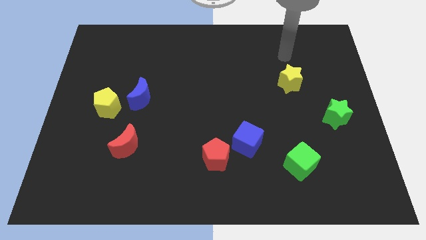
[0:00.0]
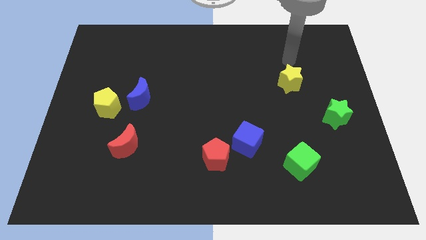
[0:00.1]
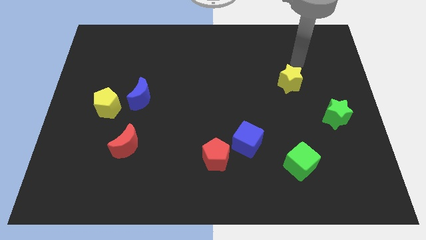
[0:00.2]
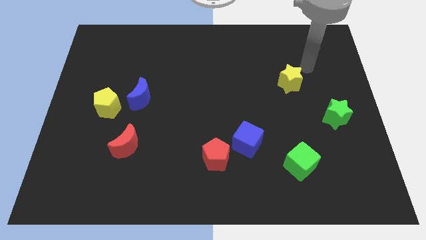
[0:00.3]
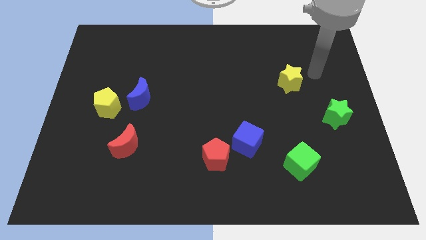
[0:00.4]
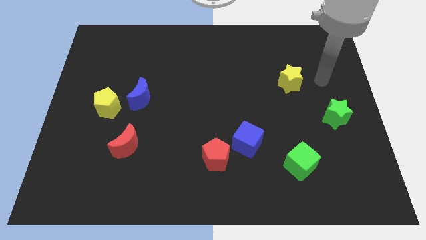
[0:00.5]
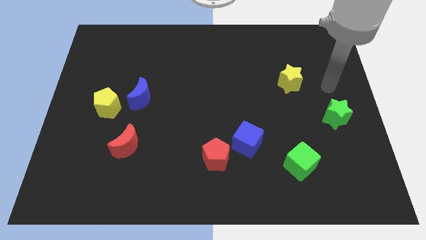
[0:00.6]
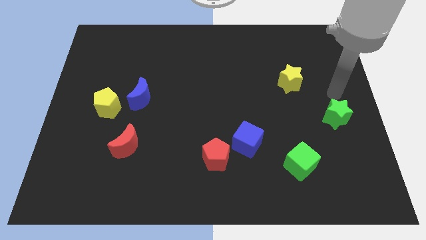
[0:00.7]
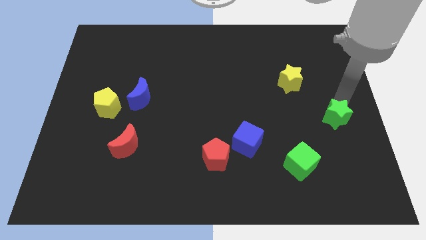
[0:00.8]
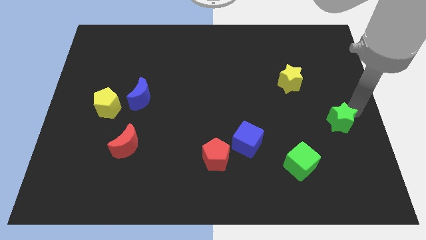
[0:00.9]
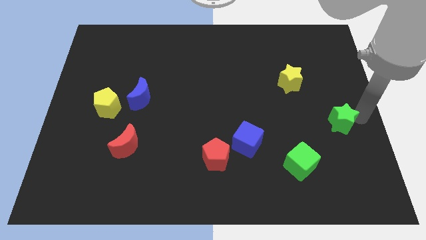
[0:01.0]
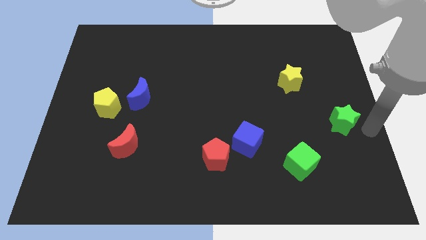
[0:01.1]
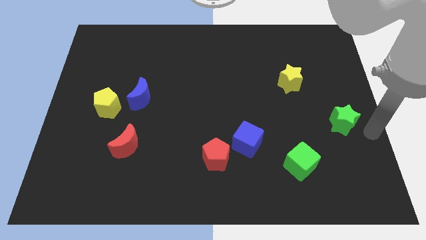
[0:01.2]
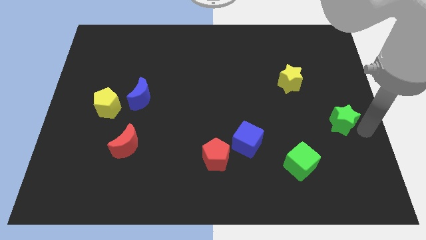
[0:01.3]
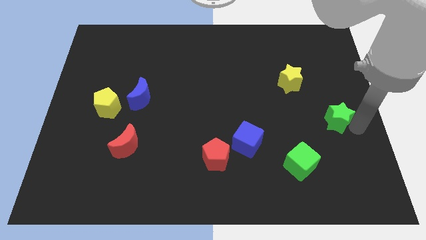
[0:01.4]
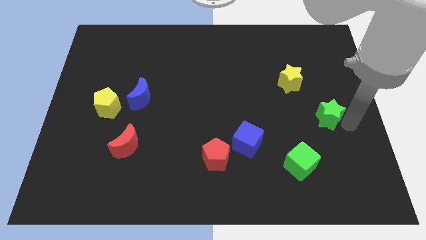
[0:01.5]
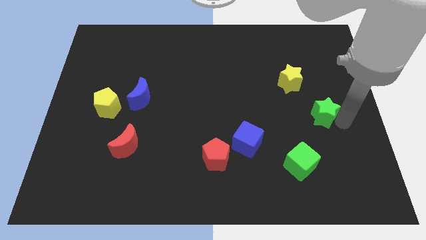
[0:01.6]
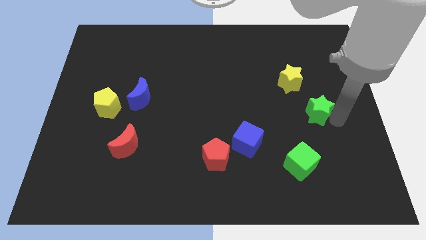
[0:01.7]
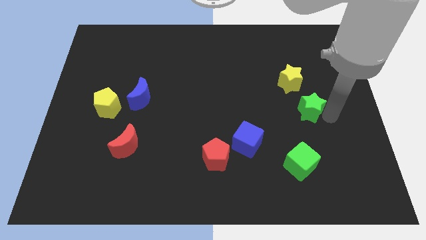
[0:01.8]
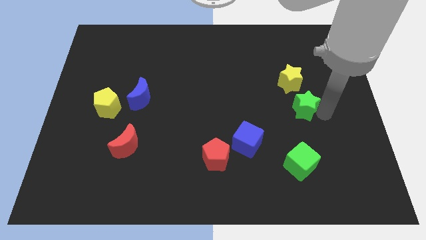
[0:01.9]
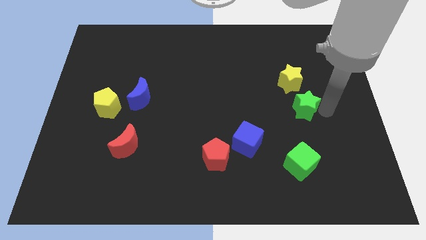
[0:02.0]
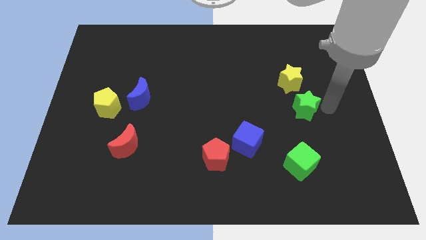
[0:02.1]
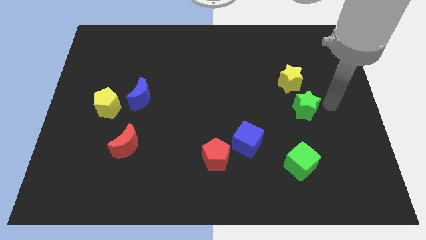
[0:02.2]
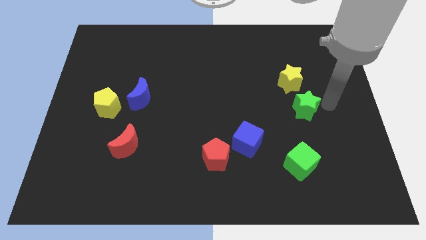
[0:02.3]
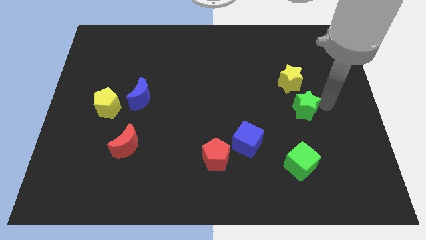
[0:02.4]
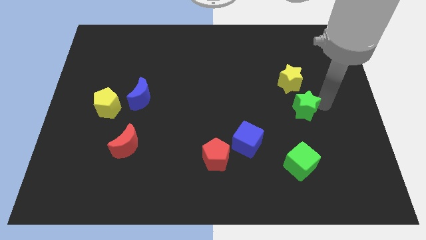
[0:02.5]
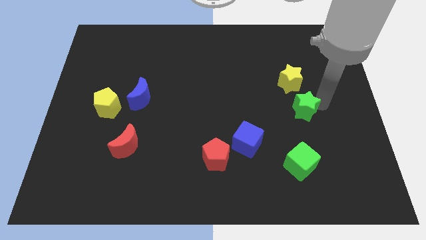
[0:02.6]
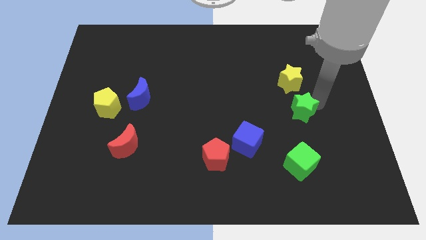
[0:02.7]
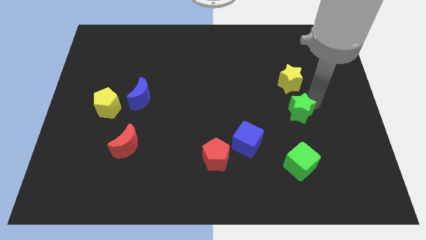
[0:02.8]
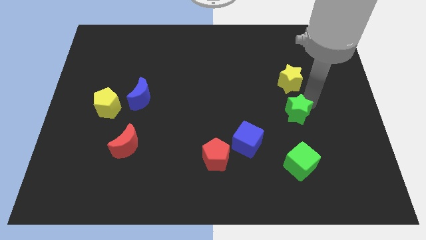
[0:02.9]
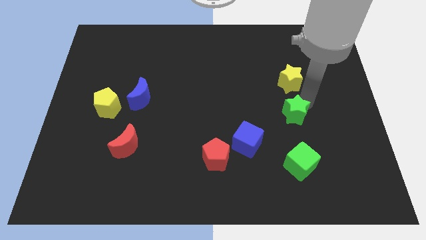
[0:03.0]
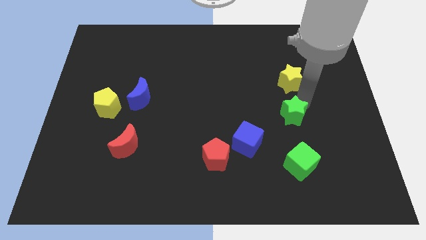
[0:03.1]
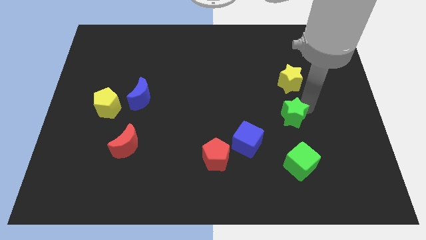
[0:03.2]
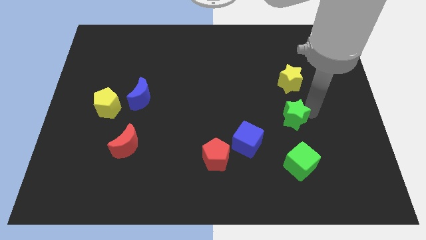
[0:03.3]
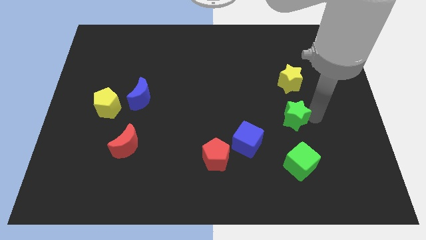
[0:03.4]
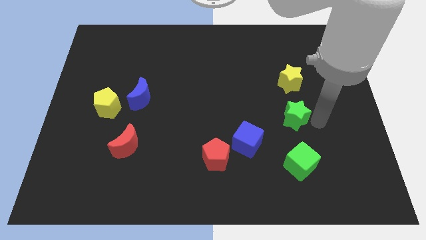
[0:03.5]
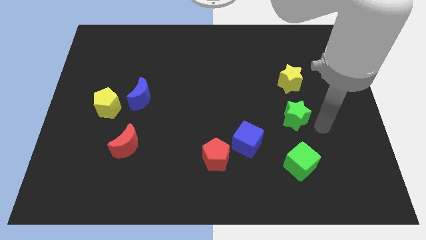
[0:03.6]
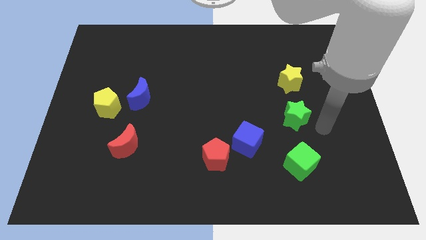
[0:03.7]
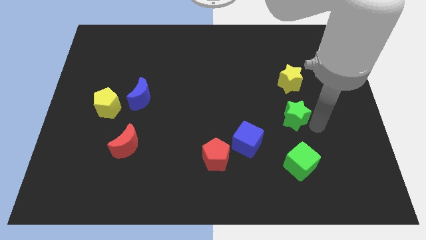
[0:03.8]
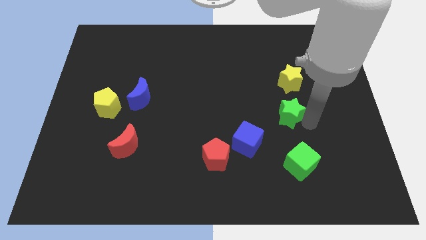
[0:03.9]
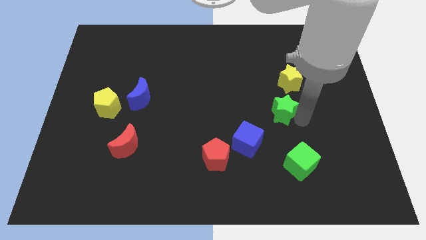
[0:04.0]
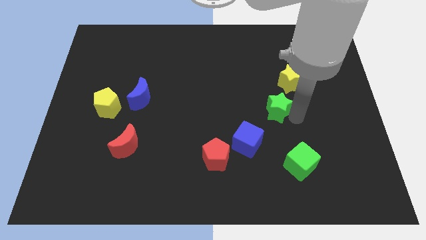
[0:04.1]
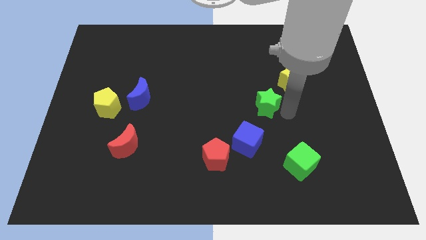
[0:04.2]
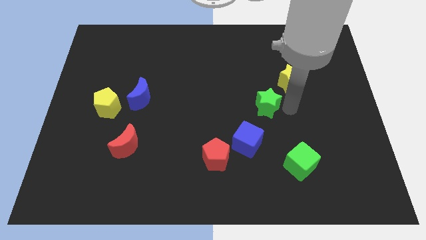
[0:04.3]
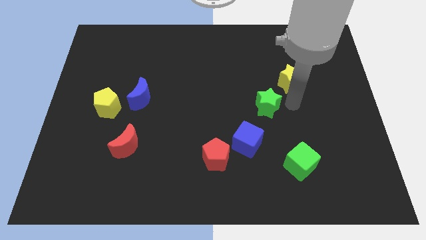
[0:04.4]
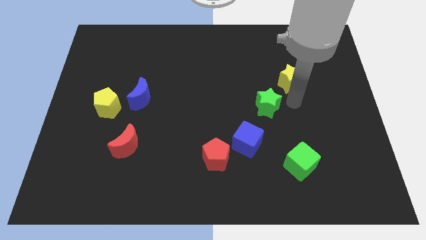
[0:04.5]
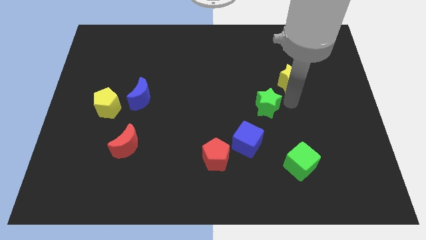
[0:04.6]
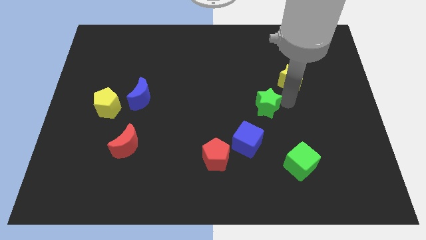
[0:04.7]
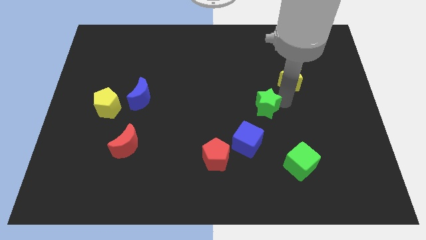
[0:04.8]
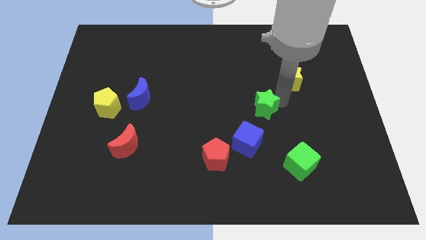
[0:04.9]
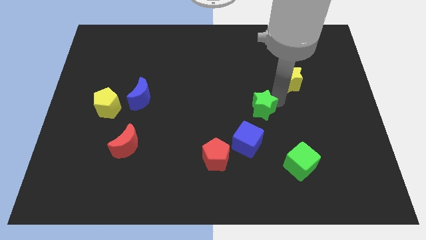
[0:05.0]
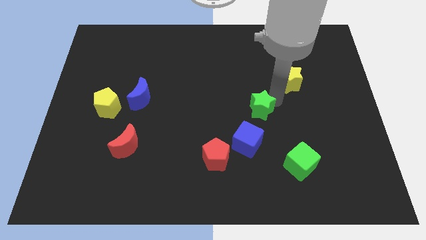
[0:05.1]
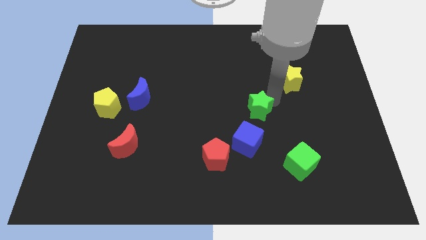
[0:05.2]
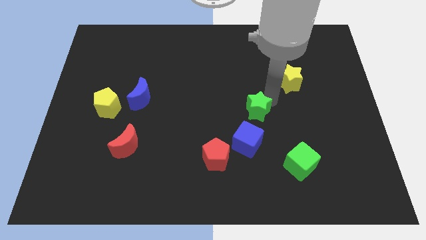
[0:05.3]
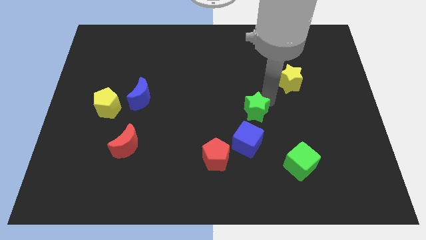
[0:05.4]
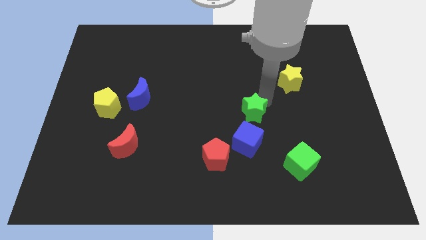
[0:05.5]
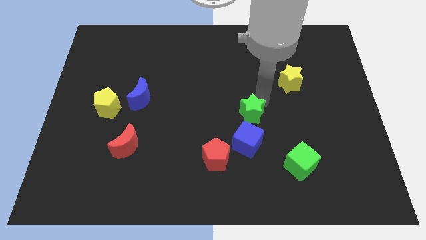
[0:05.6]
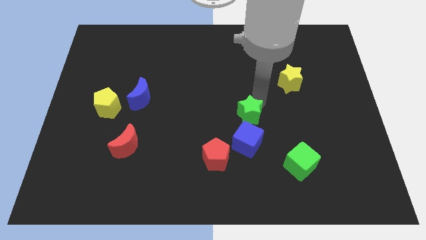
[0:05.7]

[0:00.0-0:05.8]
slide the green star to the left

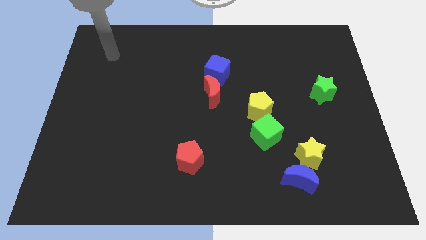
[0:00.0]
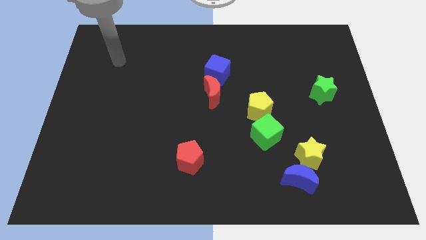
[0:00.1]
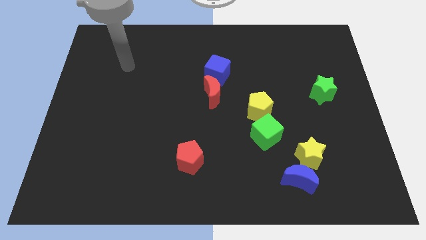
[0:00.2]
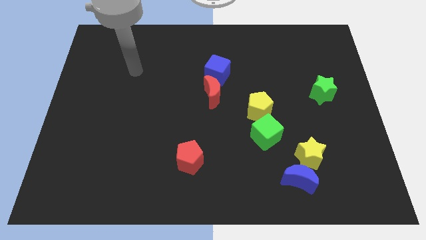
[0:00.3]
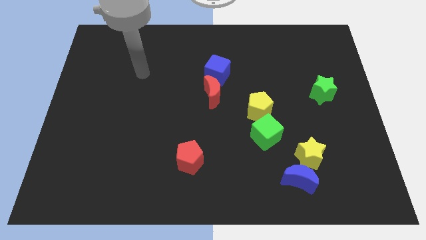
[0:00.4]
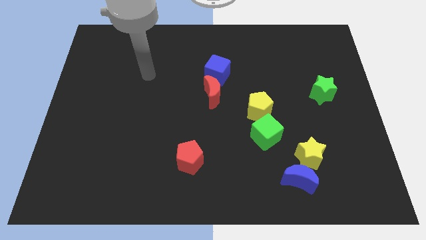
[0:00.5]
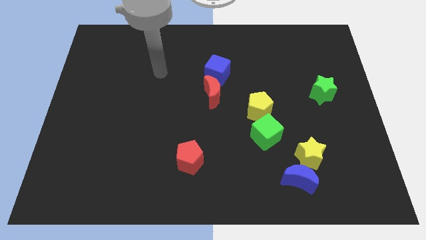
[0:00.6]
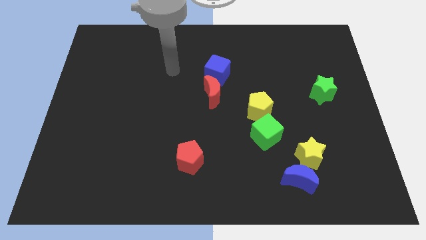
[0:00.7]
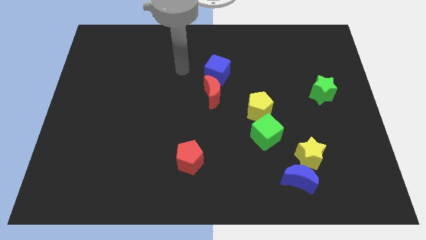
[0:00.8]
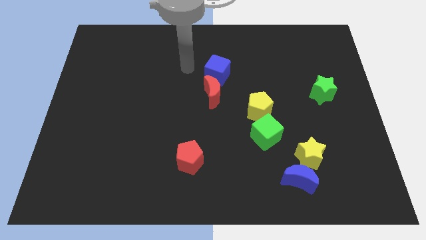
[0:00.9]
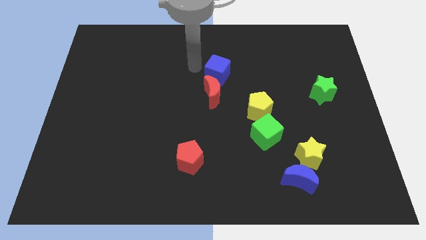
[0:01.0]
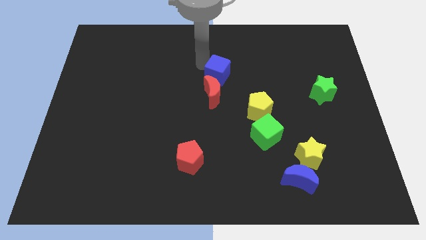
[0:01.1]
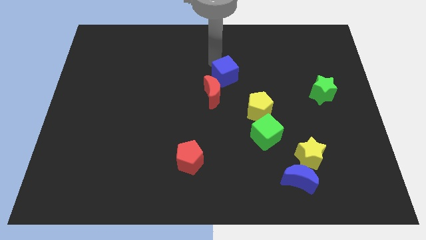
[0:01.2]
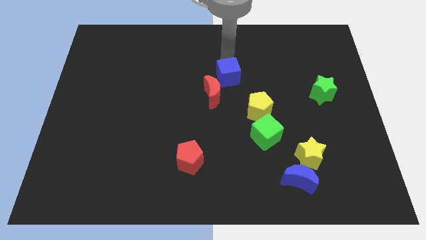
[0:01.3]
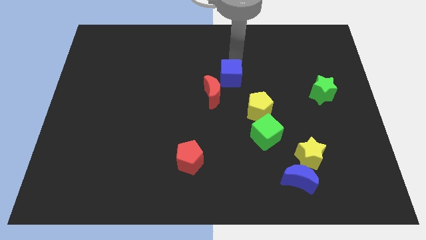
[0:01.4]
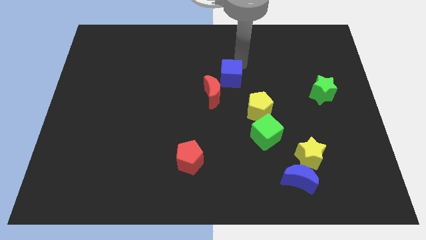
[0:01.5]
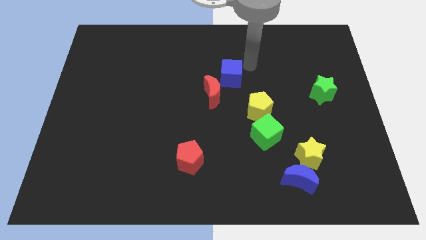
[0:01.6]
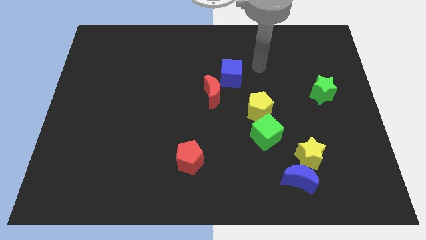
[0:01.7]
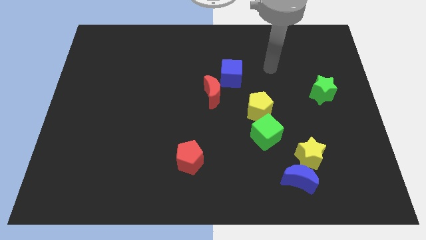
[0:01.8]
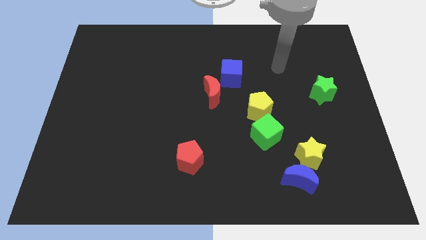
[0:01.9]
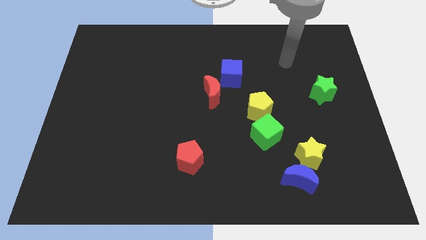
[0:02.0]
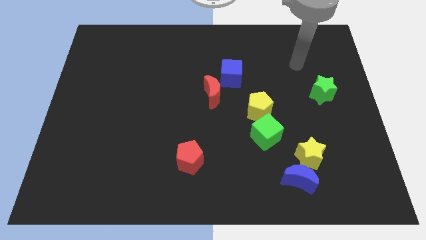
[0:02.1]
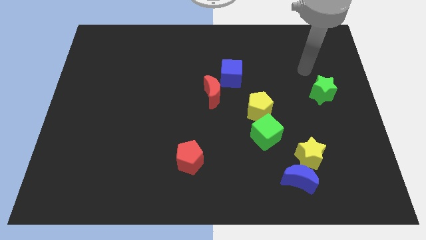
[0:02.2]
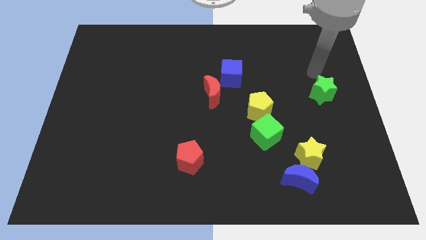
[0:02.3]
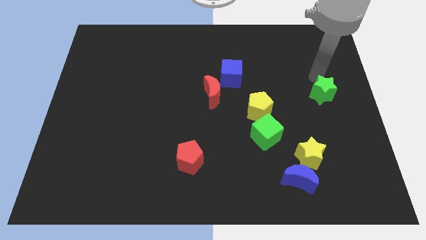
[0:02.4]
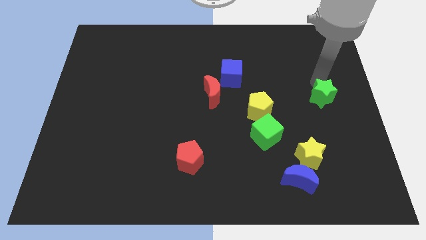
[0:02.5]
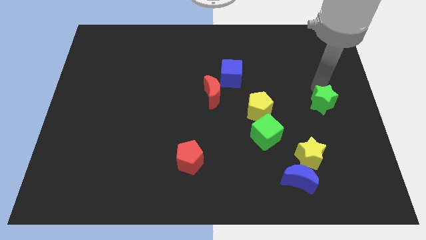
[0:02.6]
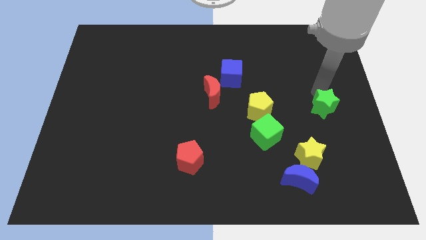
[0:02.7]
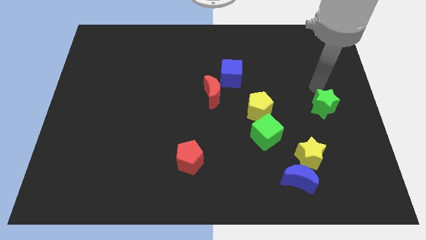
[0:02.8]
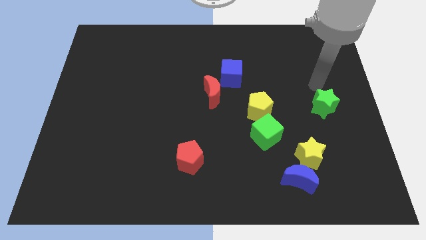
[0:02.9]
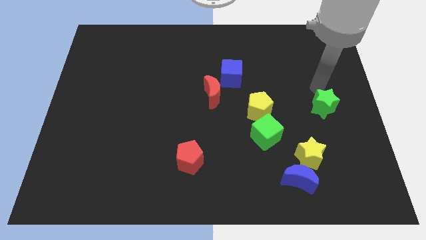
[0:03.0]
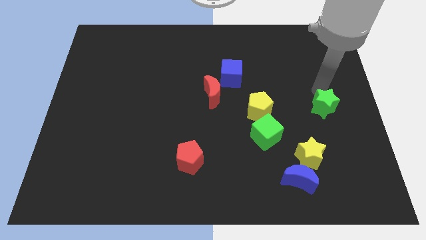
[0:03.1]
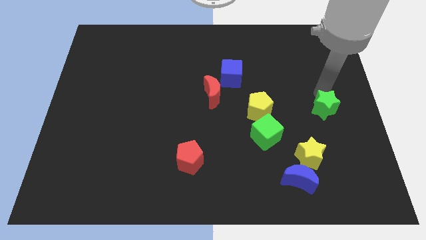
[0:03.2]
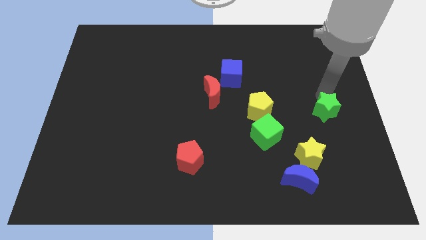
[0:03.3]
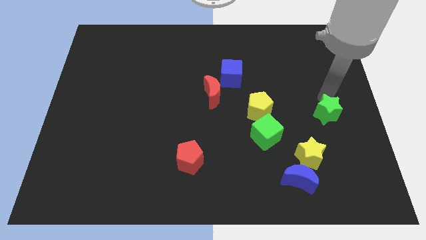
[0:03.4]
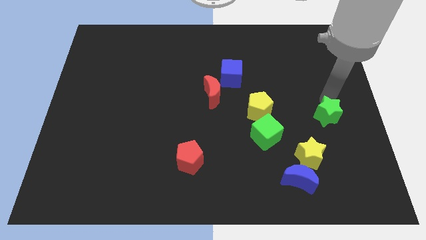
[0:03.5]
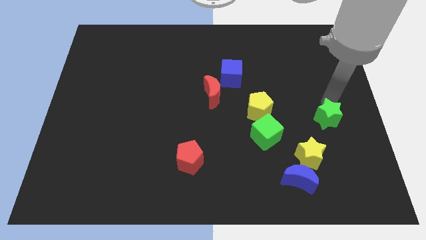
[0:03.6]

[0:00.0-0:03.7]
slightly push the green star downwards
